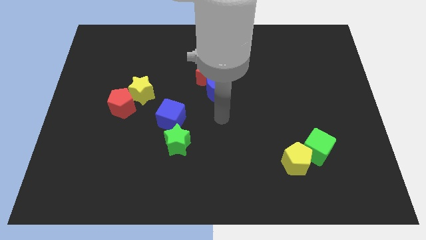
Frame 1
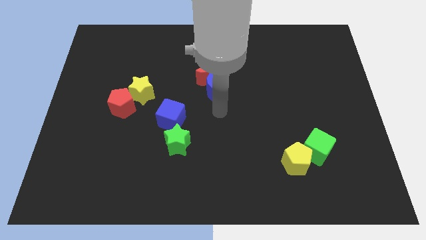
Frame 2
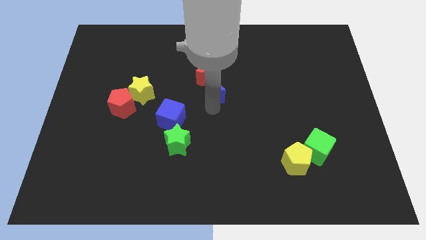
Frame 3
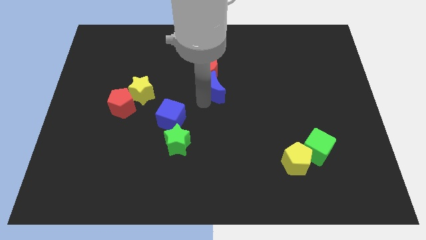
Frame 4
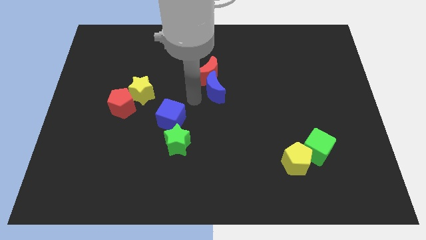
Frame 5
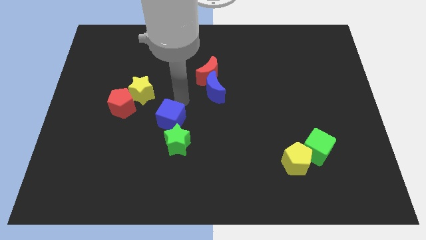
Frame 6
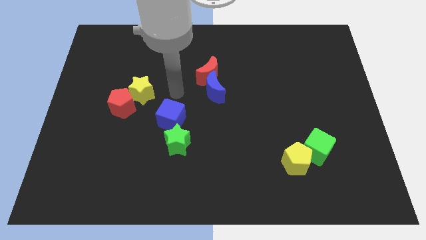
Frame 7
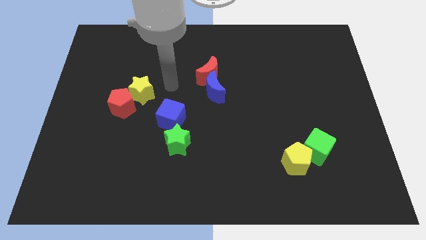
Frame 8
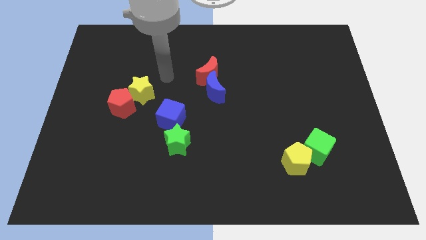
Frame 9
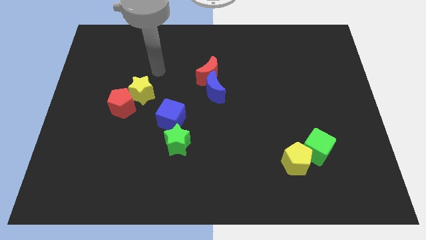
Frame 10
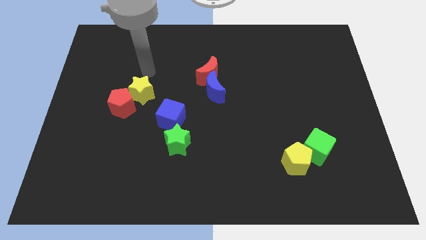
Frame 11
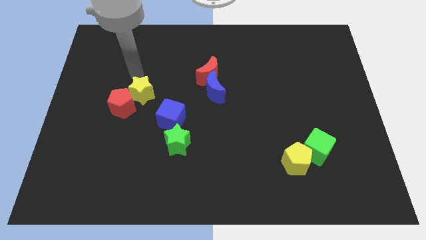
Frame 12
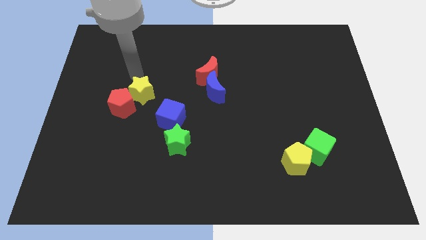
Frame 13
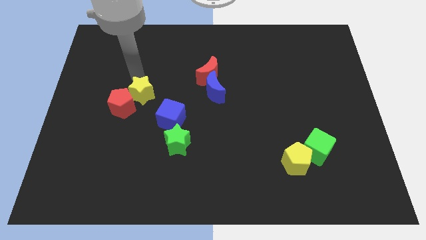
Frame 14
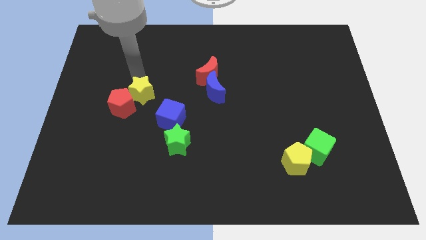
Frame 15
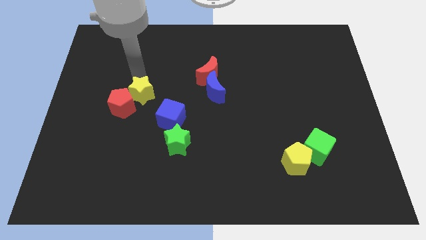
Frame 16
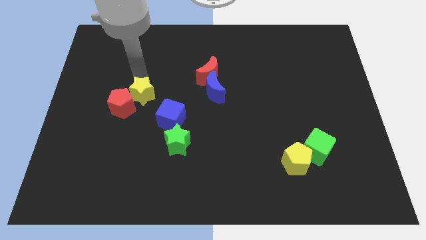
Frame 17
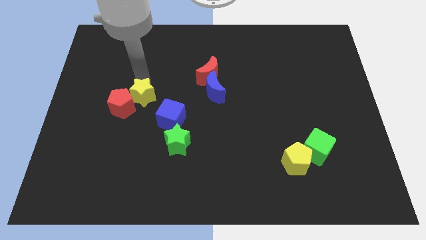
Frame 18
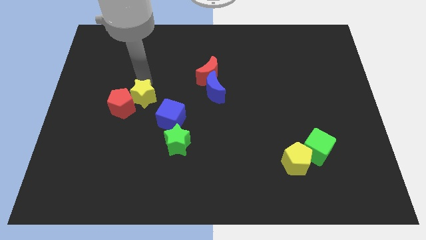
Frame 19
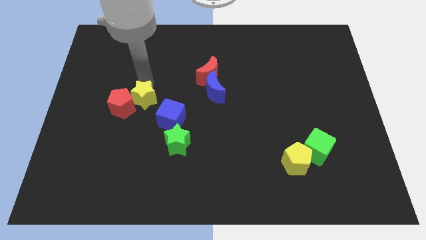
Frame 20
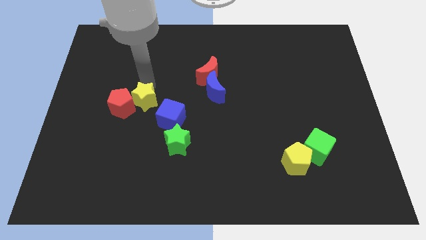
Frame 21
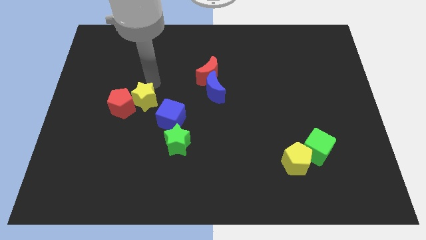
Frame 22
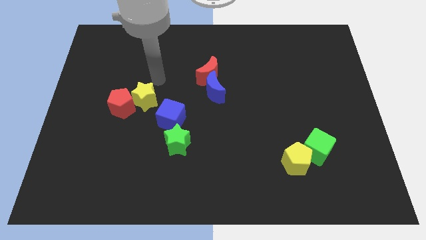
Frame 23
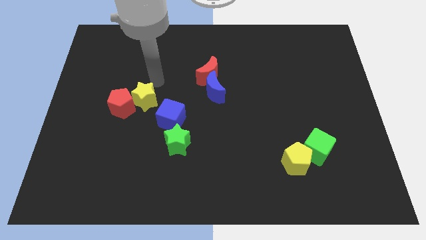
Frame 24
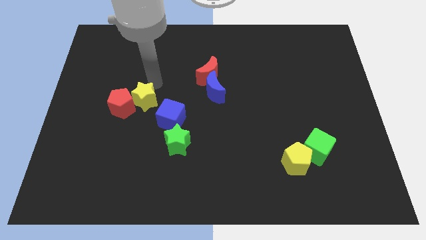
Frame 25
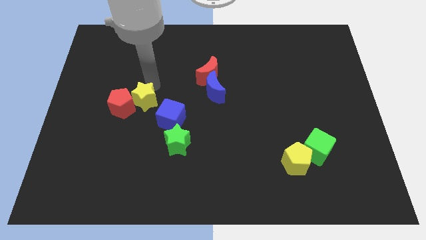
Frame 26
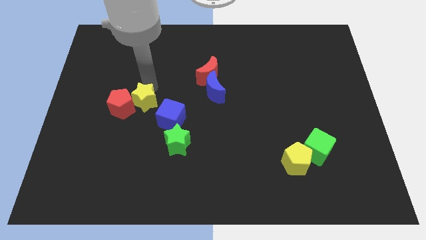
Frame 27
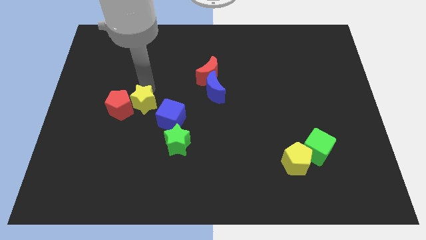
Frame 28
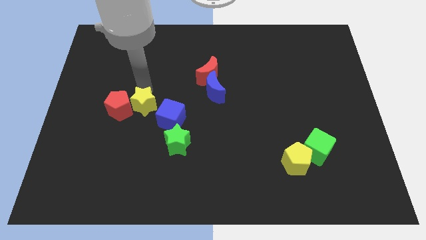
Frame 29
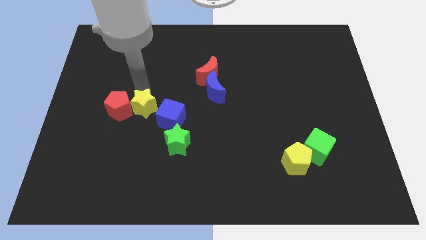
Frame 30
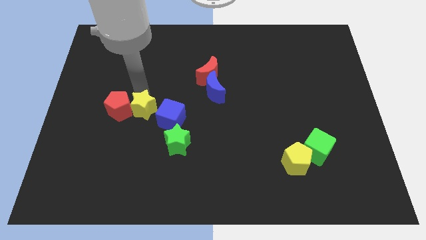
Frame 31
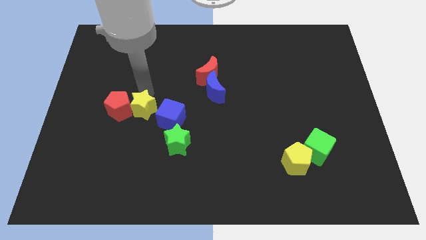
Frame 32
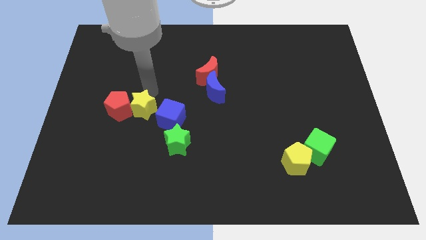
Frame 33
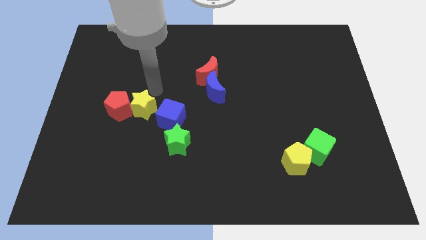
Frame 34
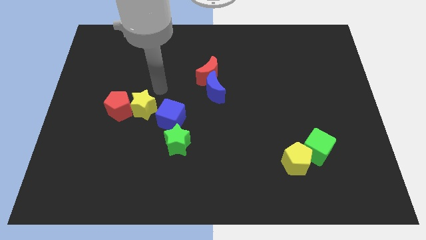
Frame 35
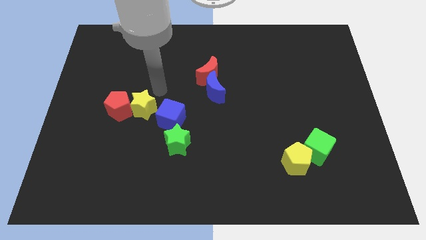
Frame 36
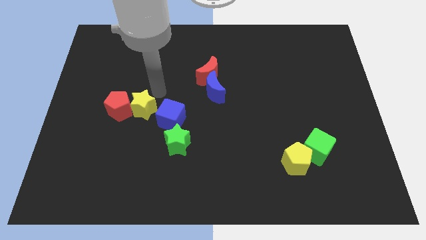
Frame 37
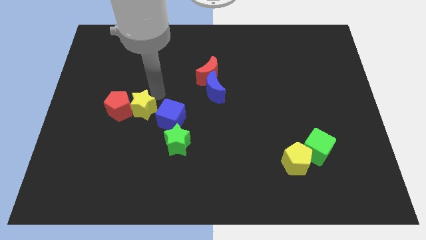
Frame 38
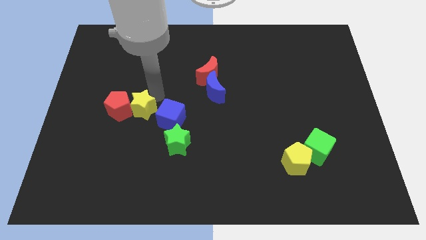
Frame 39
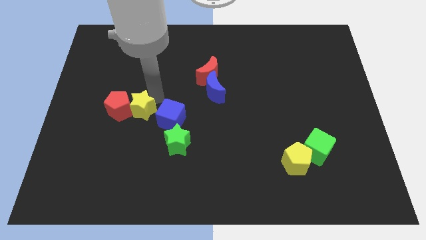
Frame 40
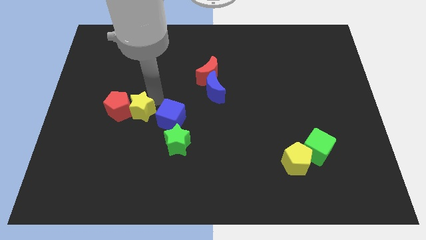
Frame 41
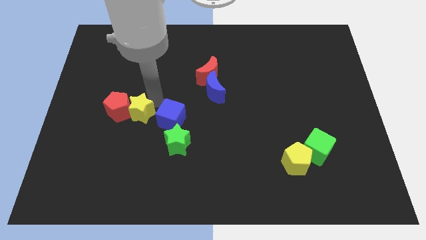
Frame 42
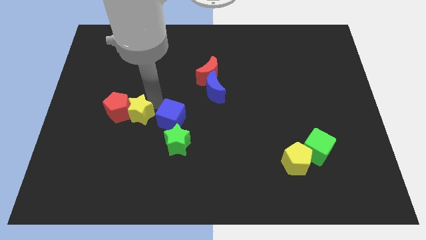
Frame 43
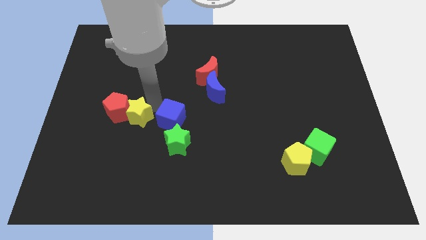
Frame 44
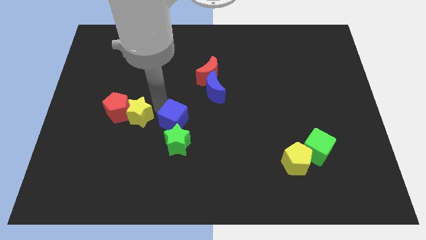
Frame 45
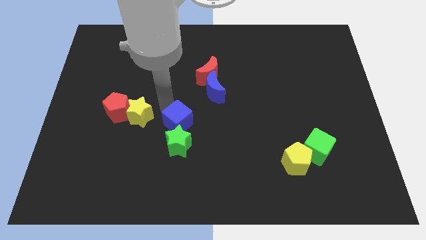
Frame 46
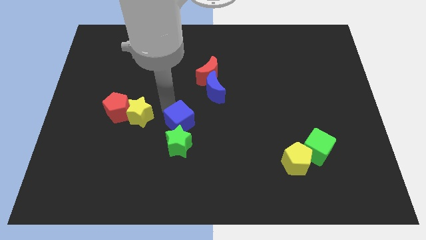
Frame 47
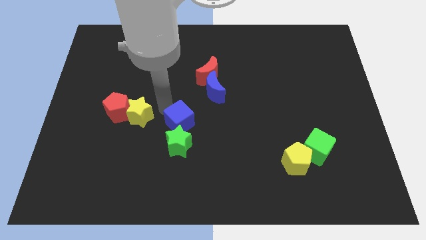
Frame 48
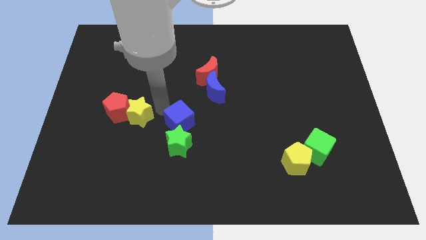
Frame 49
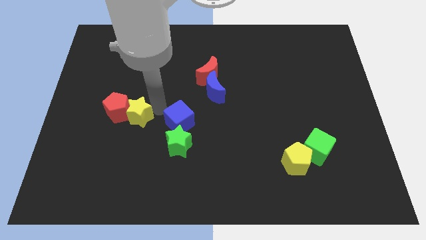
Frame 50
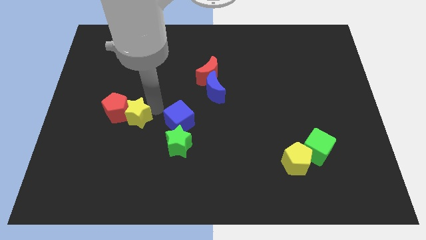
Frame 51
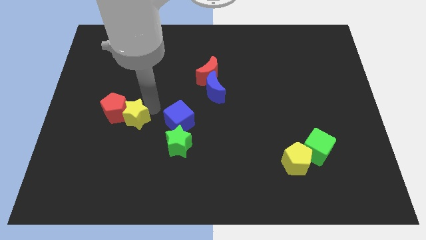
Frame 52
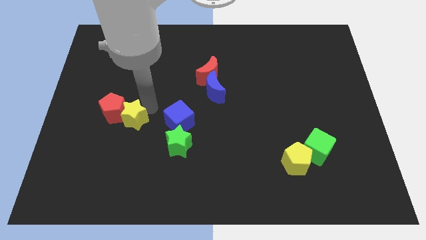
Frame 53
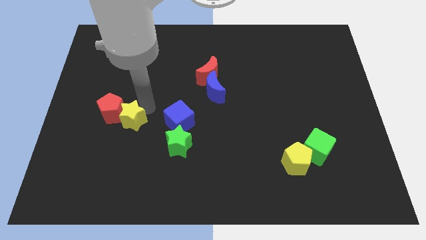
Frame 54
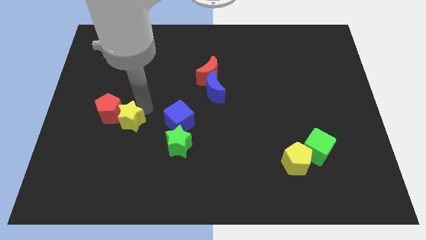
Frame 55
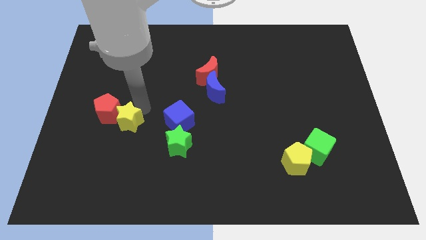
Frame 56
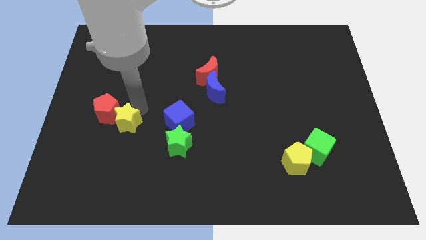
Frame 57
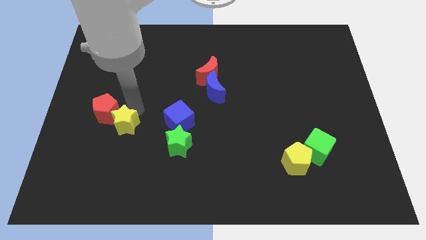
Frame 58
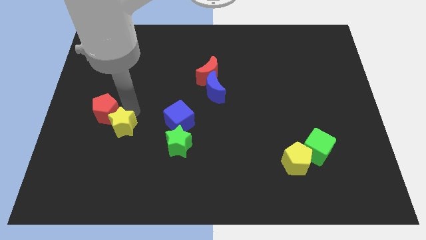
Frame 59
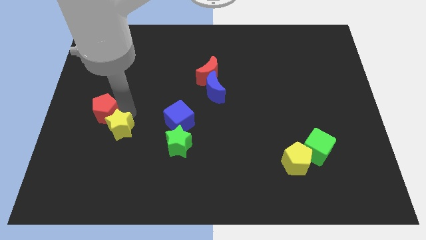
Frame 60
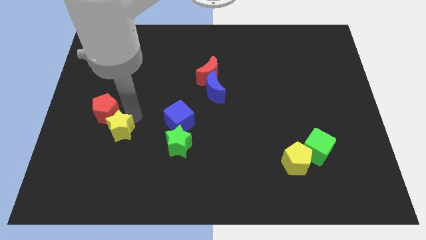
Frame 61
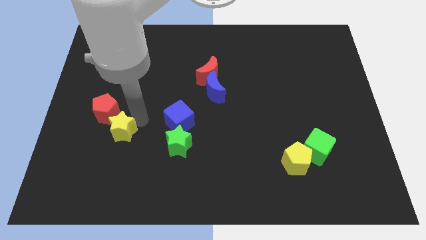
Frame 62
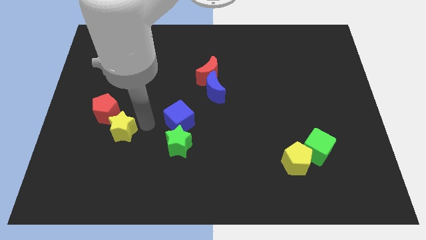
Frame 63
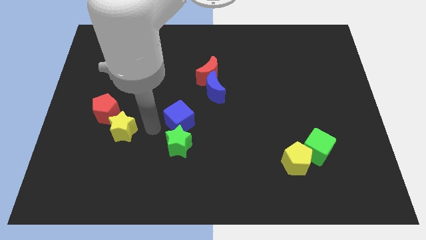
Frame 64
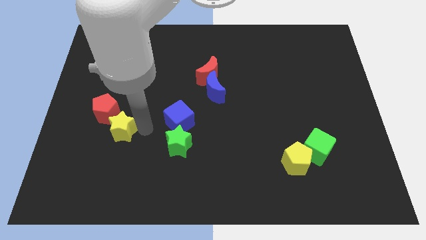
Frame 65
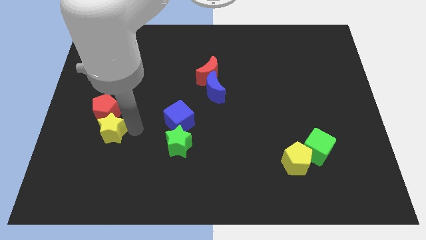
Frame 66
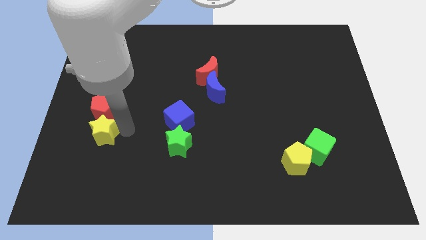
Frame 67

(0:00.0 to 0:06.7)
push the yellow star diagonally down and to the left of the red pentagon
